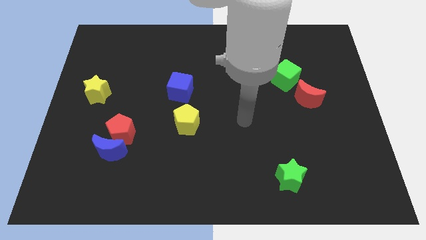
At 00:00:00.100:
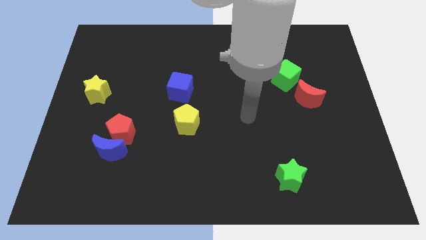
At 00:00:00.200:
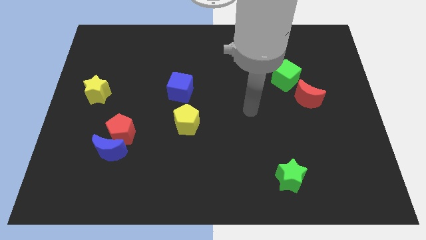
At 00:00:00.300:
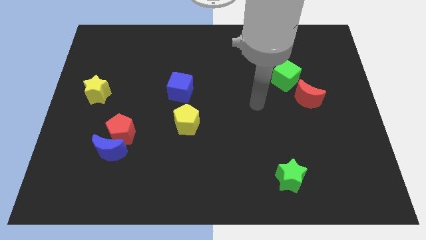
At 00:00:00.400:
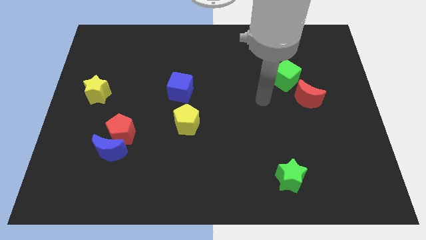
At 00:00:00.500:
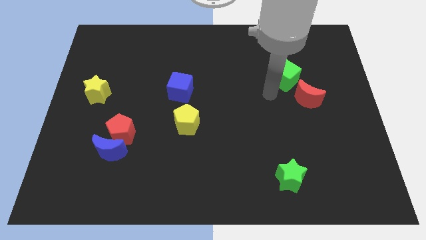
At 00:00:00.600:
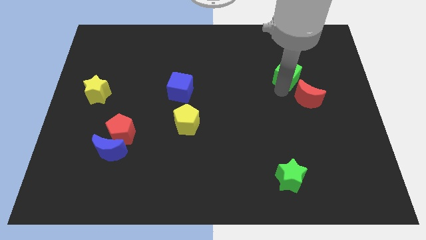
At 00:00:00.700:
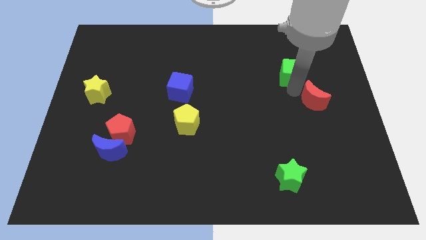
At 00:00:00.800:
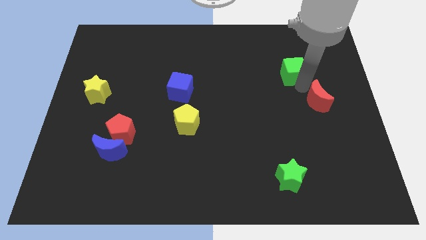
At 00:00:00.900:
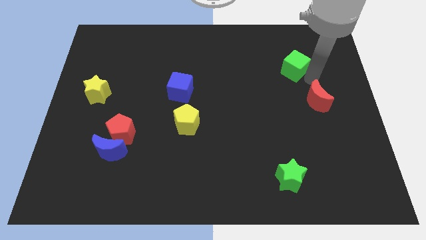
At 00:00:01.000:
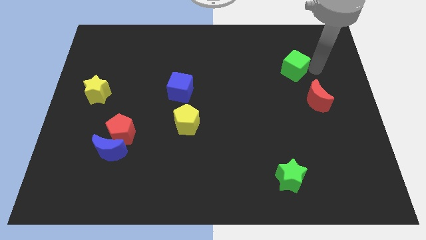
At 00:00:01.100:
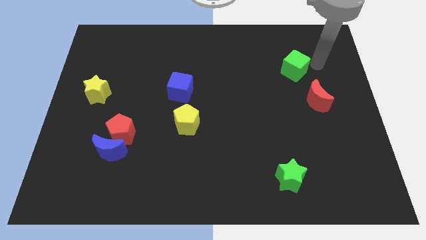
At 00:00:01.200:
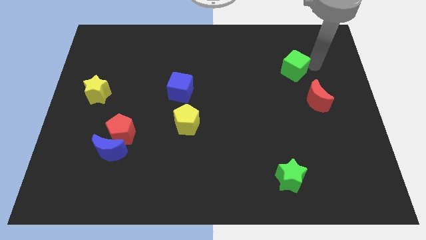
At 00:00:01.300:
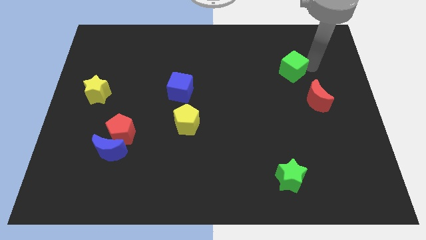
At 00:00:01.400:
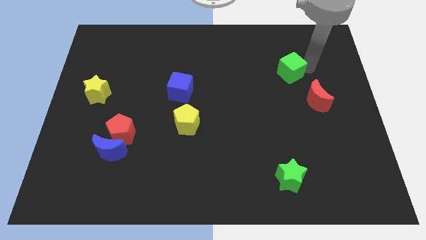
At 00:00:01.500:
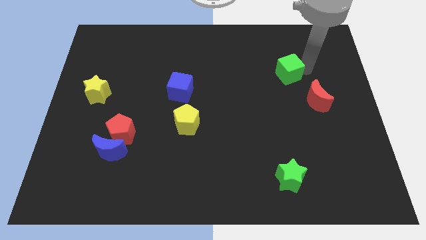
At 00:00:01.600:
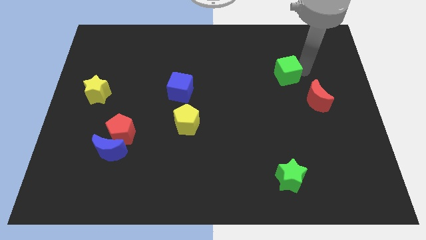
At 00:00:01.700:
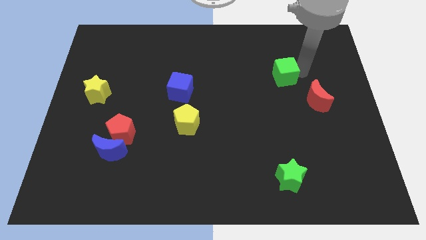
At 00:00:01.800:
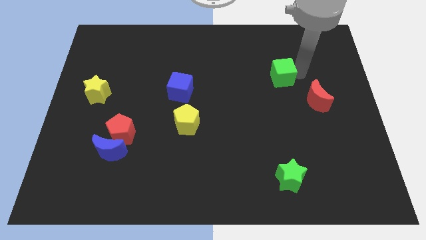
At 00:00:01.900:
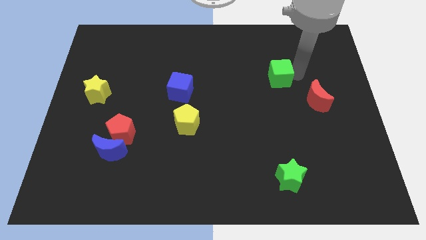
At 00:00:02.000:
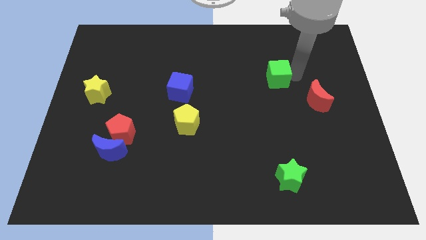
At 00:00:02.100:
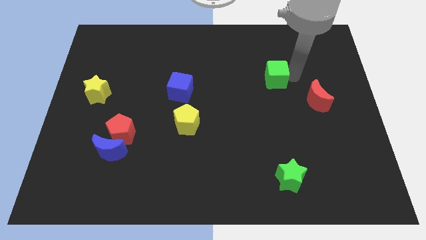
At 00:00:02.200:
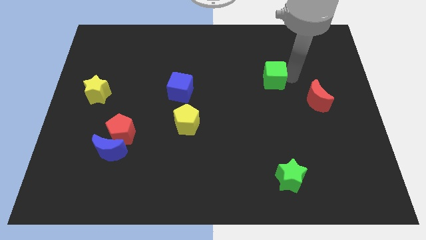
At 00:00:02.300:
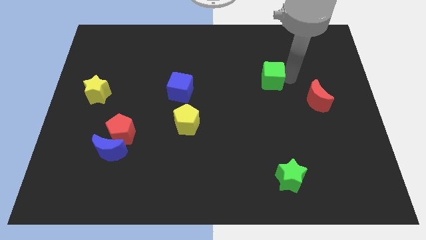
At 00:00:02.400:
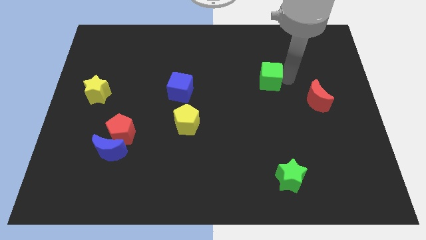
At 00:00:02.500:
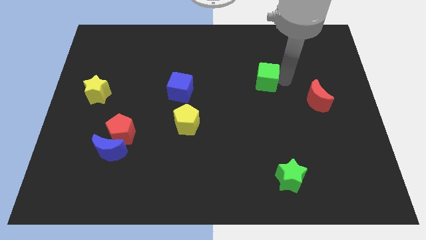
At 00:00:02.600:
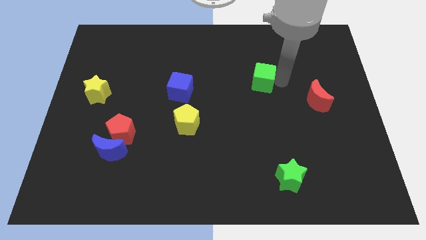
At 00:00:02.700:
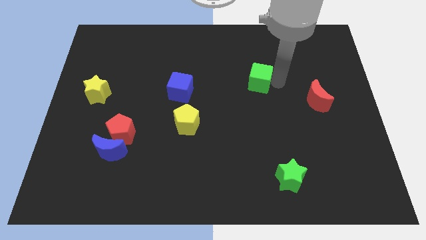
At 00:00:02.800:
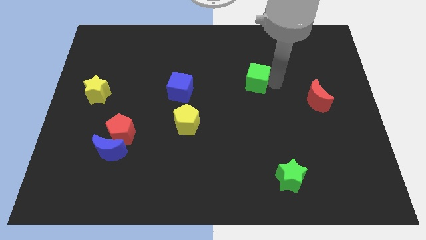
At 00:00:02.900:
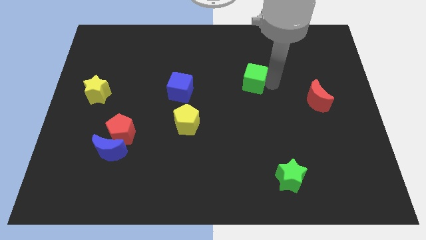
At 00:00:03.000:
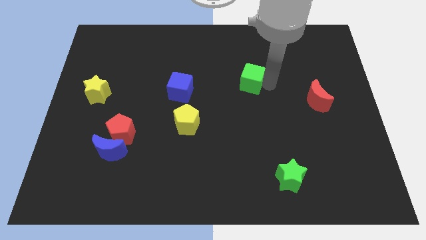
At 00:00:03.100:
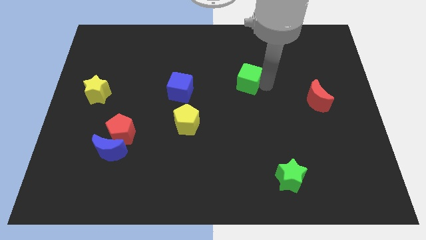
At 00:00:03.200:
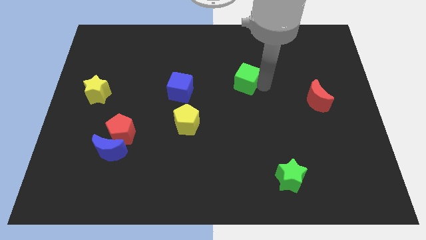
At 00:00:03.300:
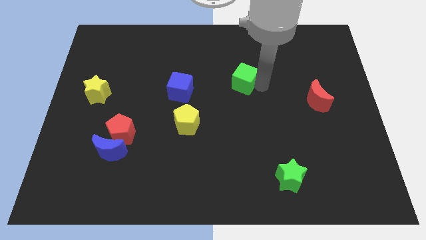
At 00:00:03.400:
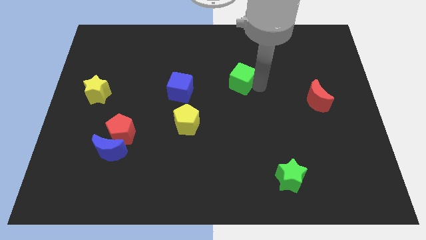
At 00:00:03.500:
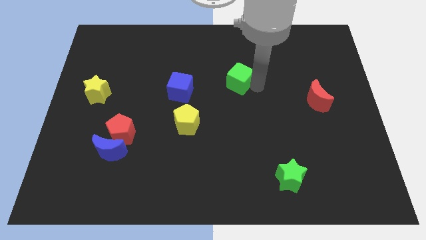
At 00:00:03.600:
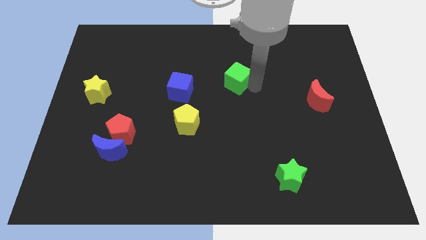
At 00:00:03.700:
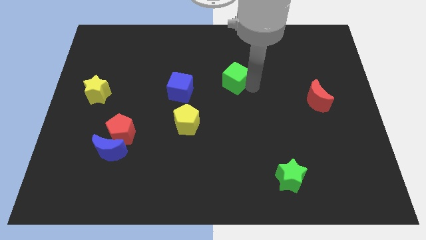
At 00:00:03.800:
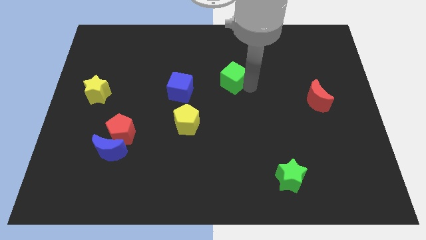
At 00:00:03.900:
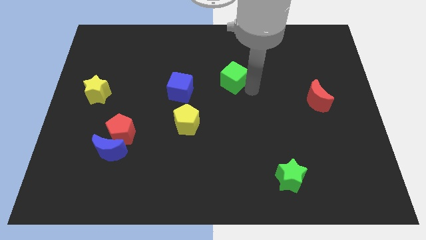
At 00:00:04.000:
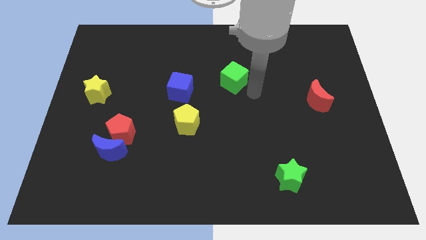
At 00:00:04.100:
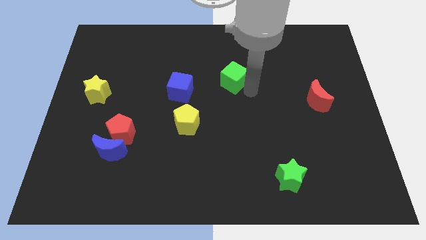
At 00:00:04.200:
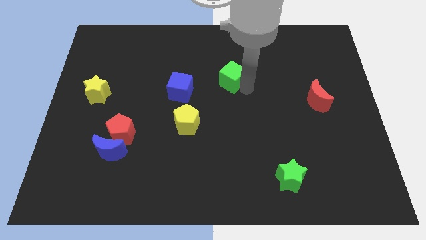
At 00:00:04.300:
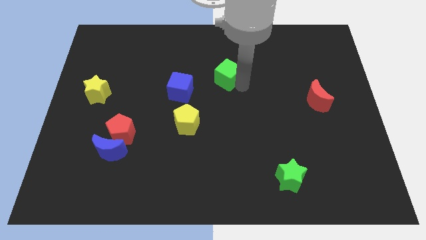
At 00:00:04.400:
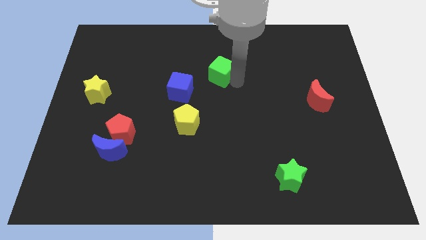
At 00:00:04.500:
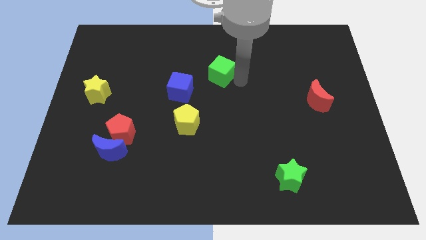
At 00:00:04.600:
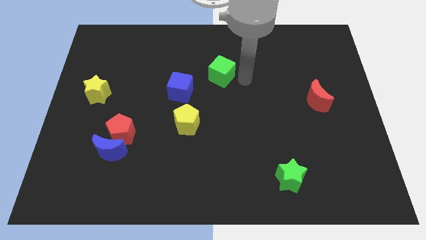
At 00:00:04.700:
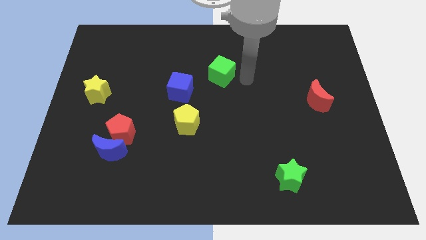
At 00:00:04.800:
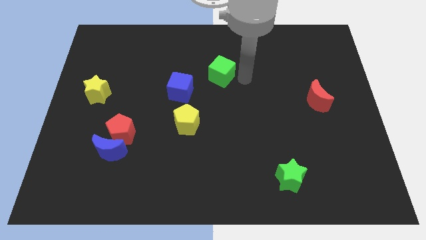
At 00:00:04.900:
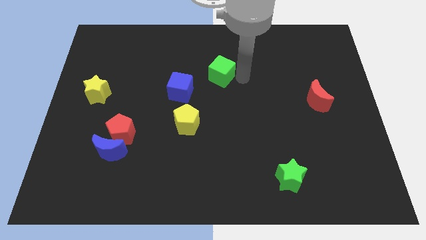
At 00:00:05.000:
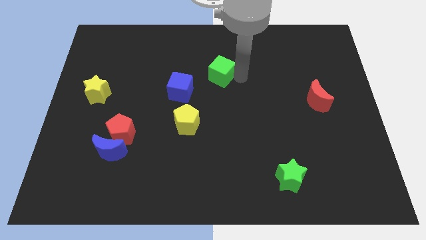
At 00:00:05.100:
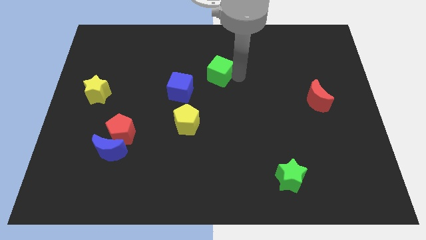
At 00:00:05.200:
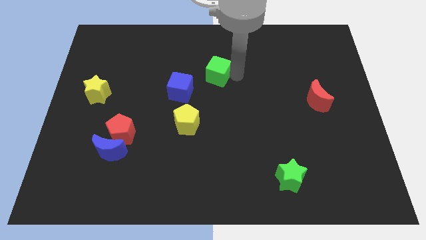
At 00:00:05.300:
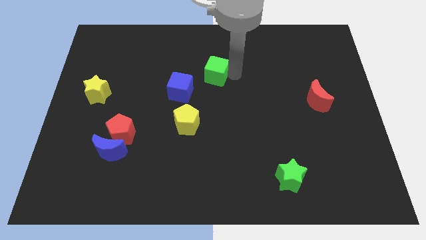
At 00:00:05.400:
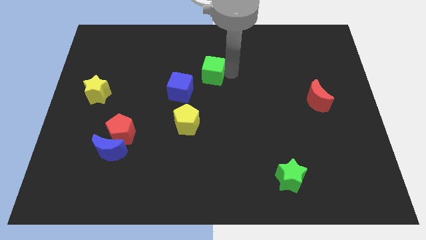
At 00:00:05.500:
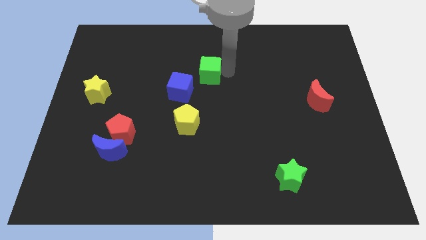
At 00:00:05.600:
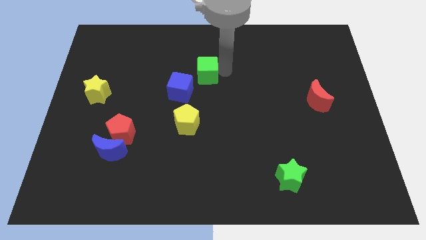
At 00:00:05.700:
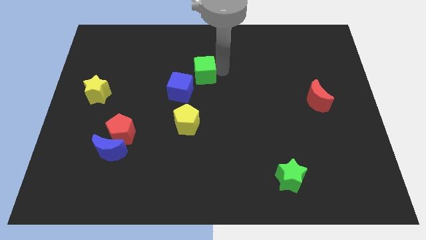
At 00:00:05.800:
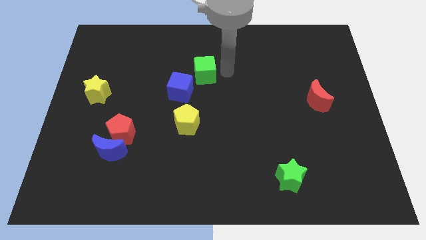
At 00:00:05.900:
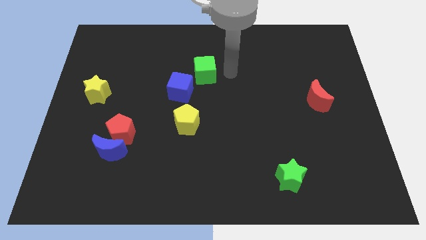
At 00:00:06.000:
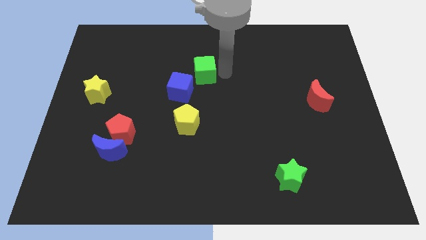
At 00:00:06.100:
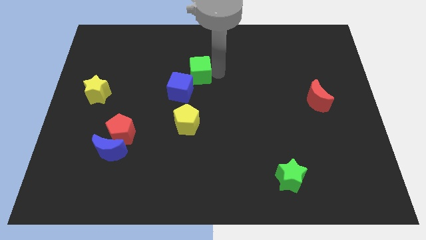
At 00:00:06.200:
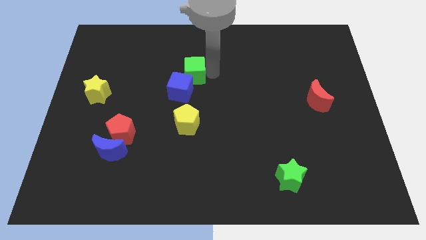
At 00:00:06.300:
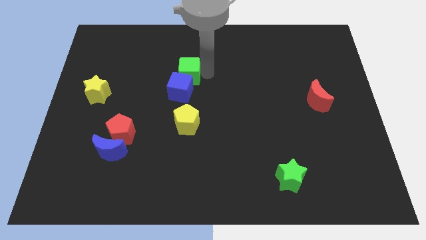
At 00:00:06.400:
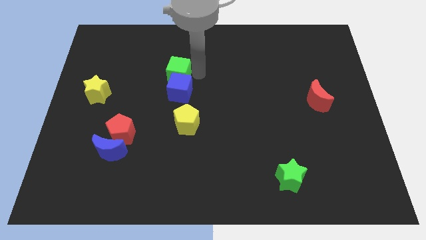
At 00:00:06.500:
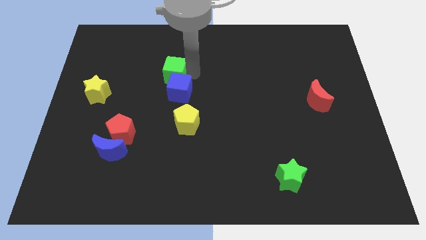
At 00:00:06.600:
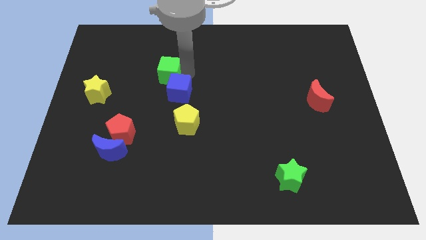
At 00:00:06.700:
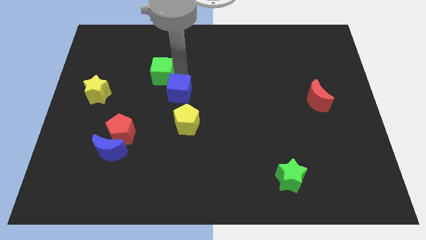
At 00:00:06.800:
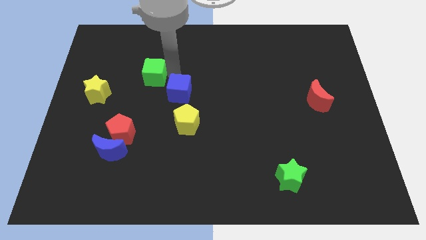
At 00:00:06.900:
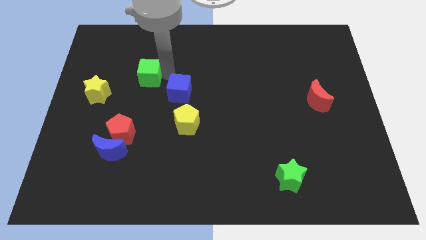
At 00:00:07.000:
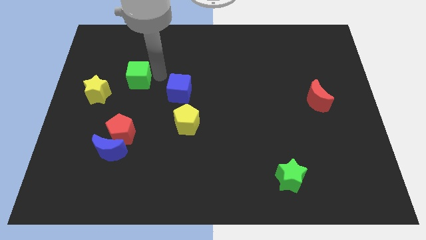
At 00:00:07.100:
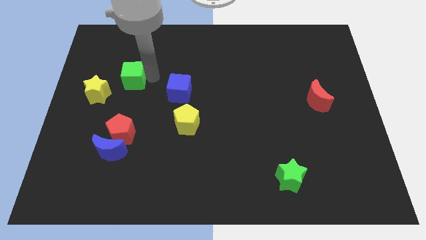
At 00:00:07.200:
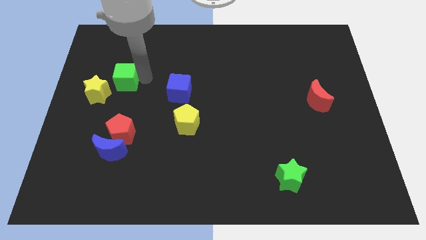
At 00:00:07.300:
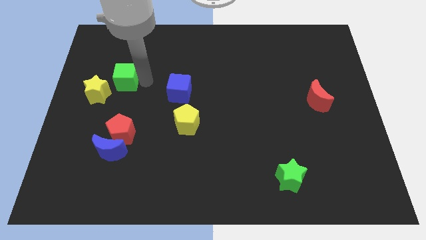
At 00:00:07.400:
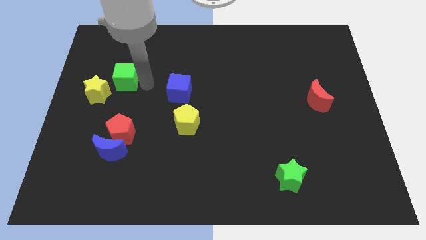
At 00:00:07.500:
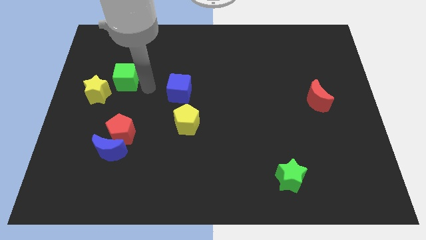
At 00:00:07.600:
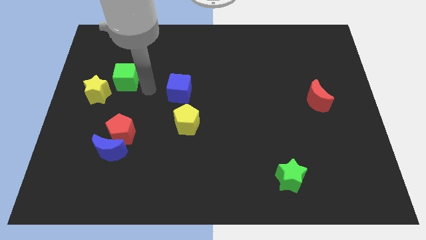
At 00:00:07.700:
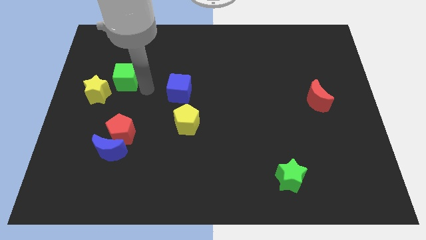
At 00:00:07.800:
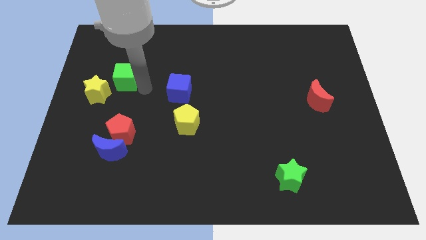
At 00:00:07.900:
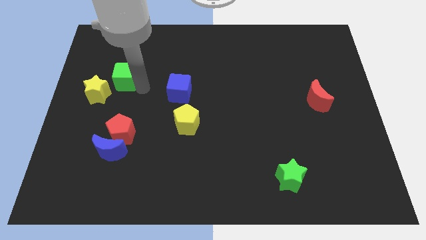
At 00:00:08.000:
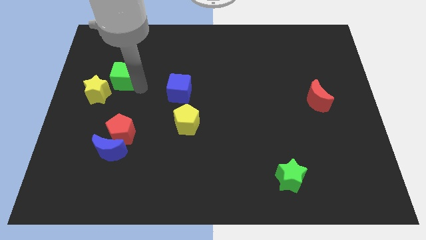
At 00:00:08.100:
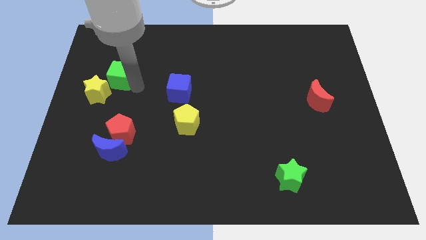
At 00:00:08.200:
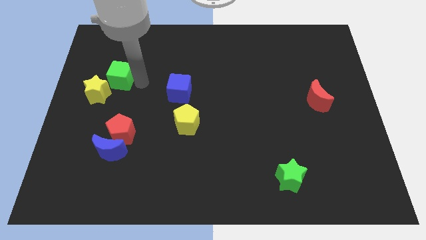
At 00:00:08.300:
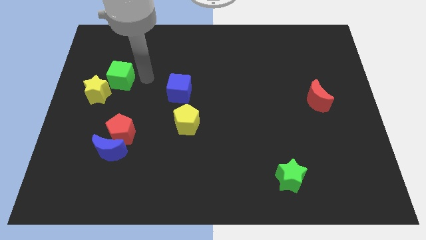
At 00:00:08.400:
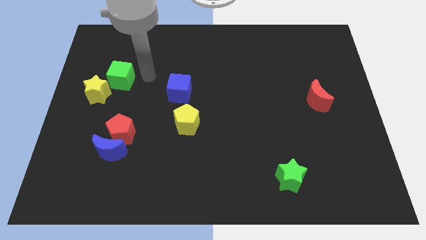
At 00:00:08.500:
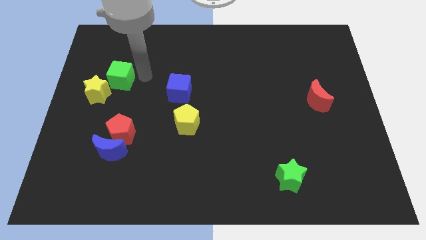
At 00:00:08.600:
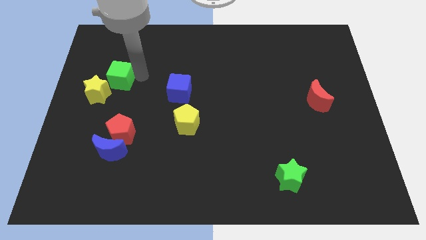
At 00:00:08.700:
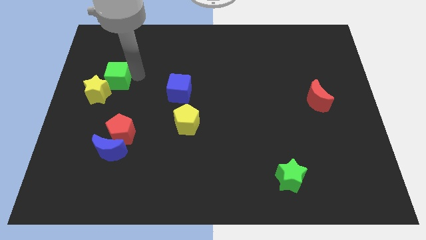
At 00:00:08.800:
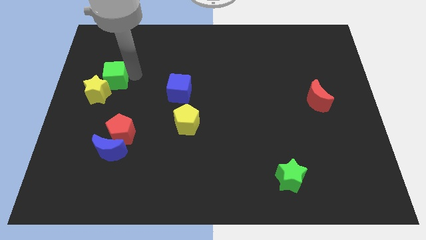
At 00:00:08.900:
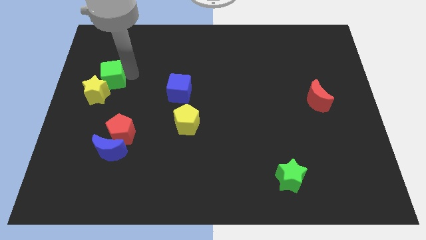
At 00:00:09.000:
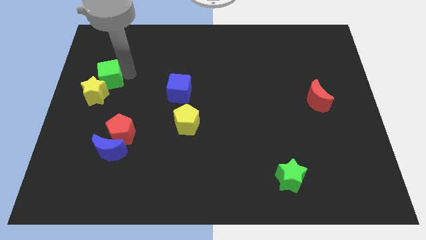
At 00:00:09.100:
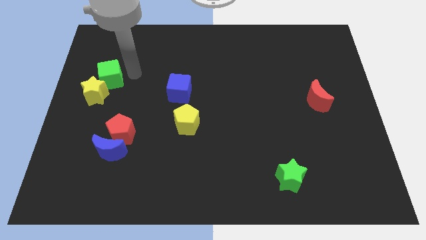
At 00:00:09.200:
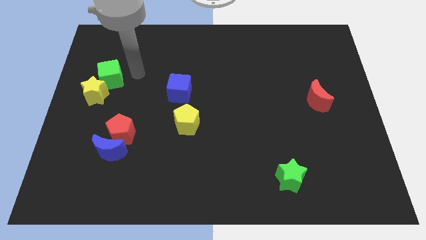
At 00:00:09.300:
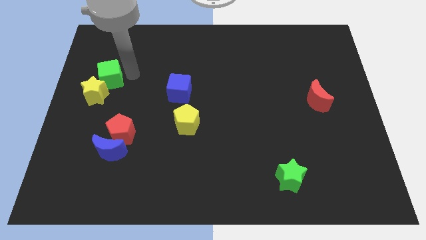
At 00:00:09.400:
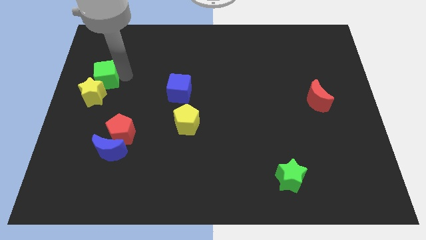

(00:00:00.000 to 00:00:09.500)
put the green cube to the left side of the board
